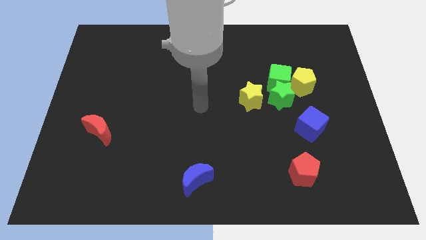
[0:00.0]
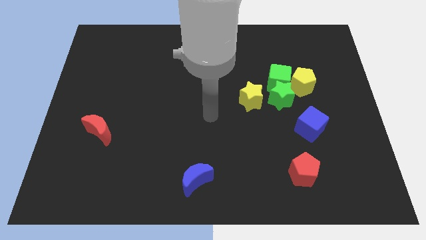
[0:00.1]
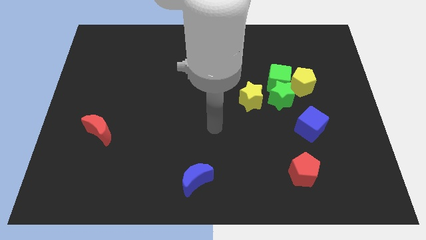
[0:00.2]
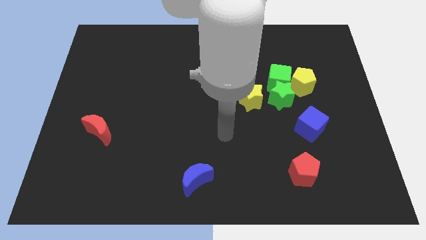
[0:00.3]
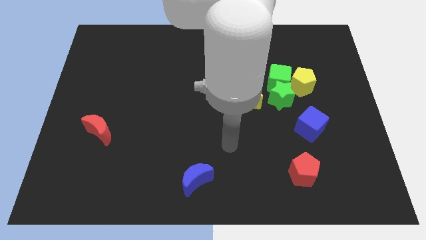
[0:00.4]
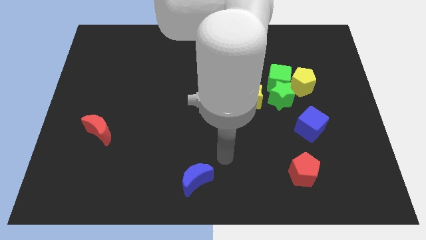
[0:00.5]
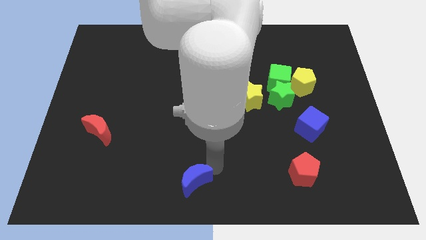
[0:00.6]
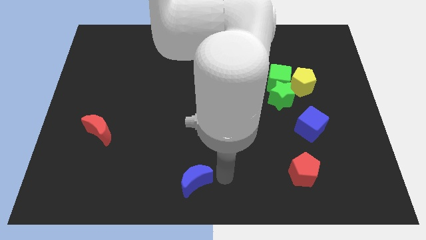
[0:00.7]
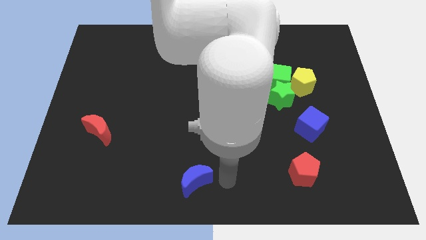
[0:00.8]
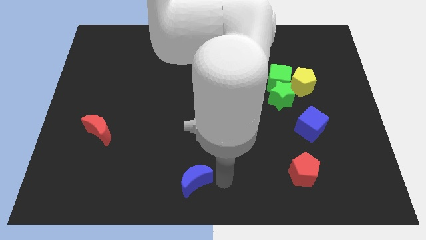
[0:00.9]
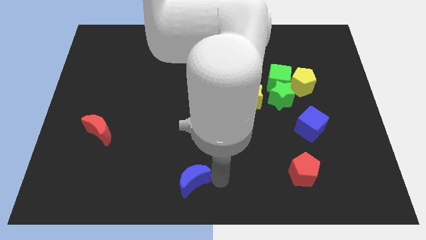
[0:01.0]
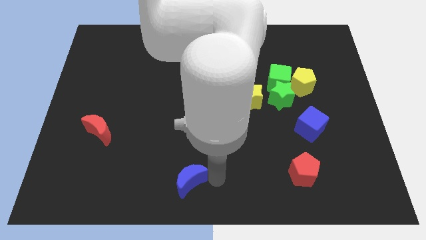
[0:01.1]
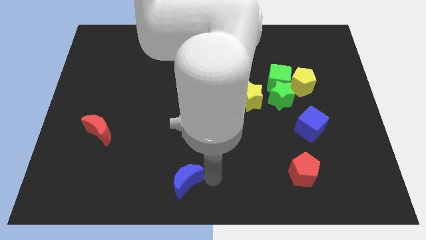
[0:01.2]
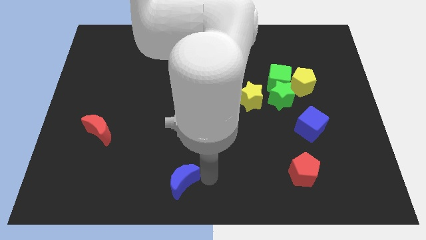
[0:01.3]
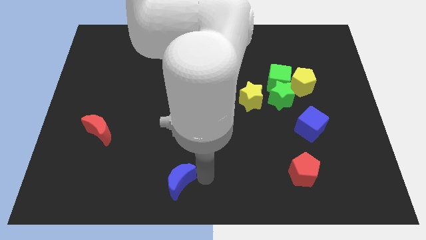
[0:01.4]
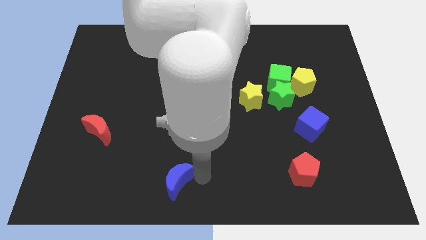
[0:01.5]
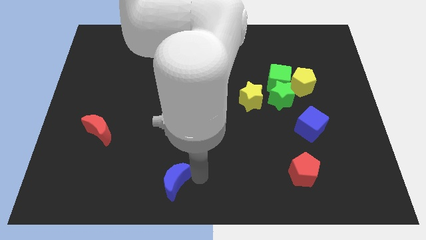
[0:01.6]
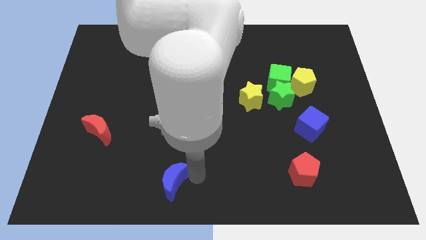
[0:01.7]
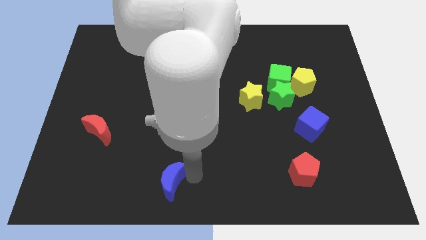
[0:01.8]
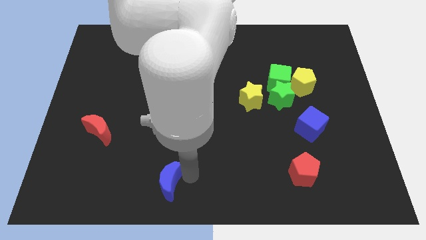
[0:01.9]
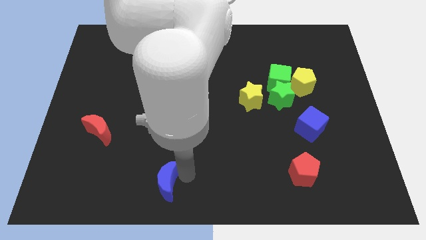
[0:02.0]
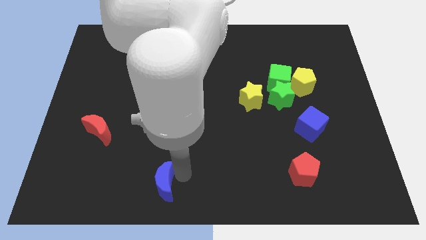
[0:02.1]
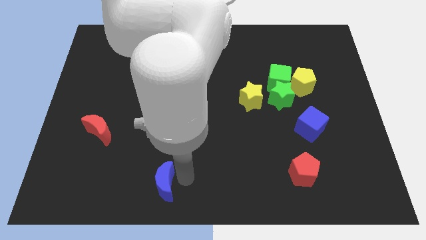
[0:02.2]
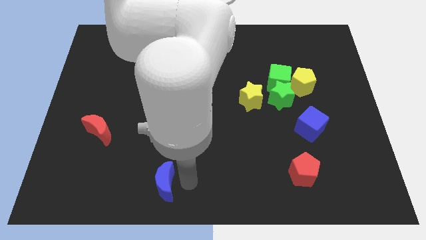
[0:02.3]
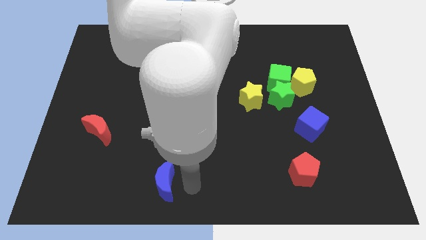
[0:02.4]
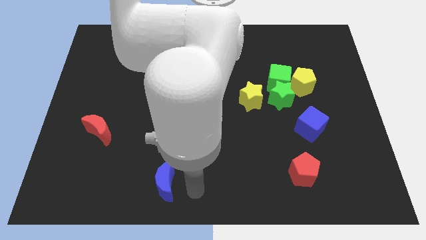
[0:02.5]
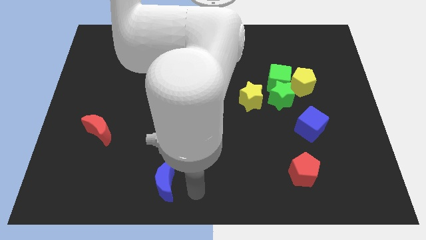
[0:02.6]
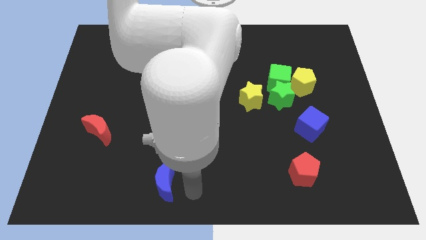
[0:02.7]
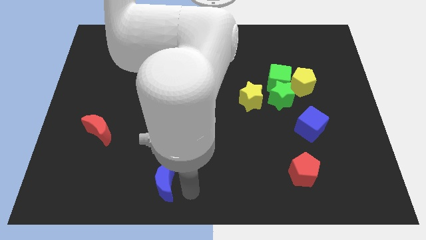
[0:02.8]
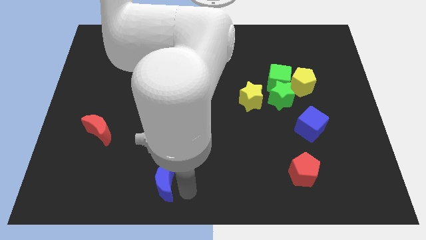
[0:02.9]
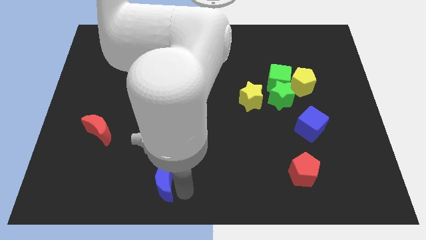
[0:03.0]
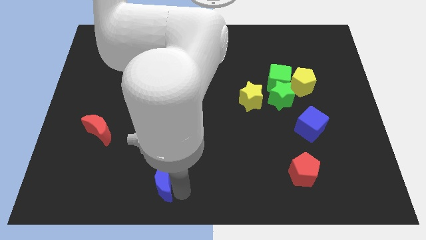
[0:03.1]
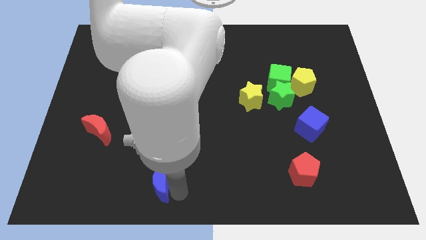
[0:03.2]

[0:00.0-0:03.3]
slightly slide the blue moon left

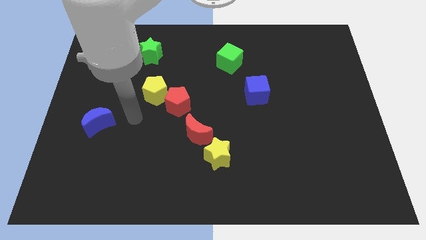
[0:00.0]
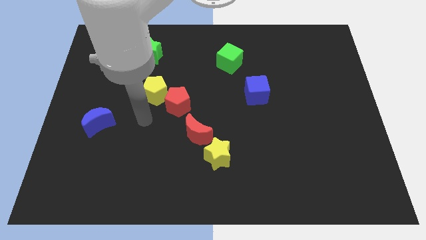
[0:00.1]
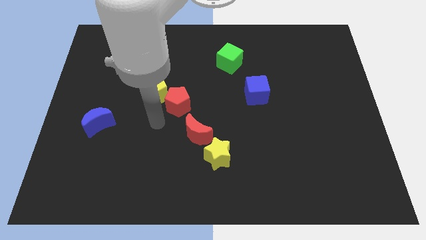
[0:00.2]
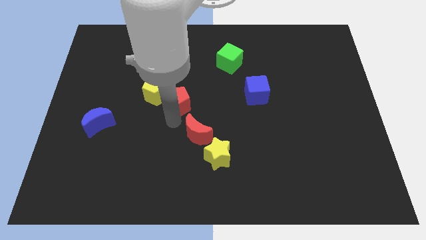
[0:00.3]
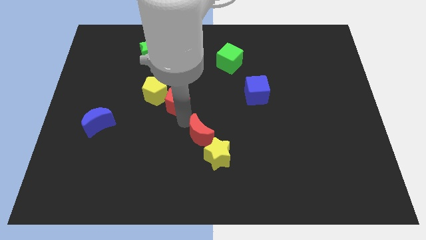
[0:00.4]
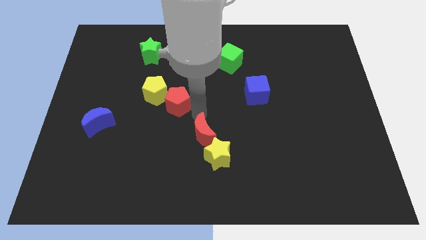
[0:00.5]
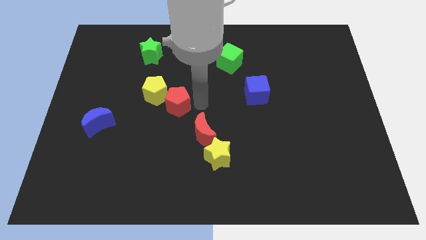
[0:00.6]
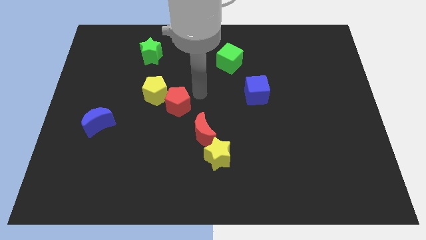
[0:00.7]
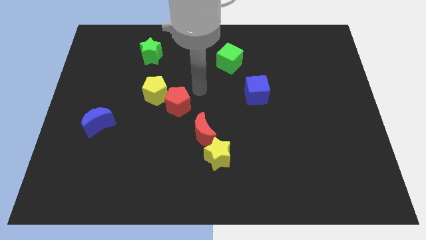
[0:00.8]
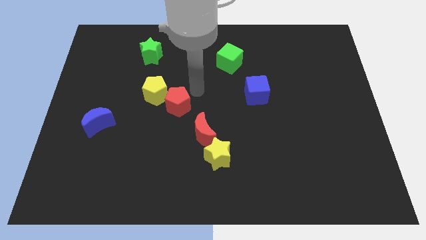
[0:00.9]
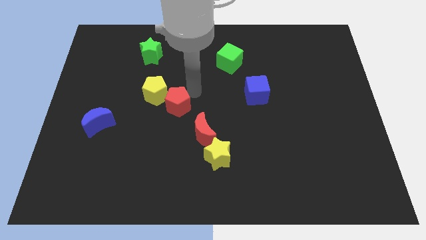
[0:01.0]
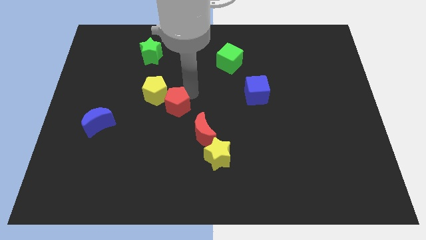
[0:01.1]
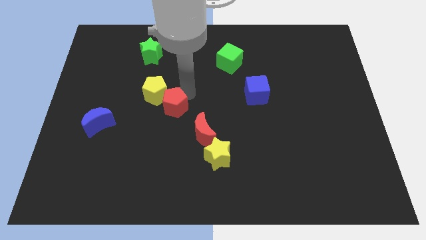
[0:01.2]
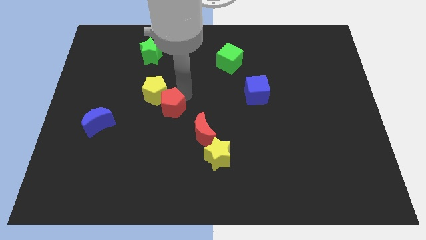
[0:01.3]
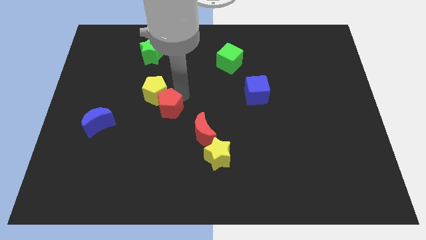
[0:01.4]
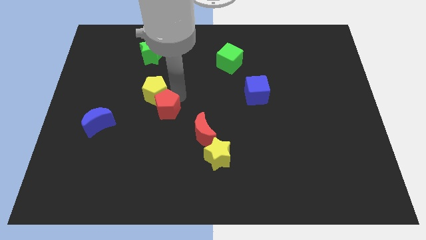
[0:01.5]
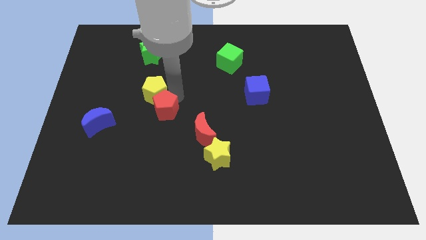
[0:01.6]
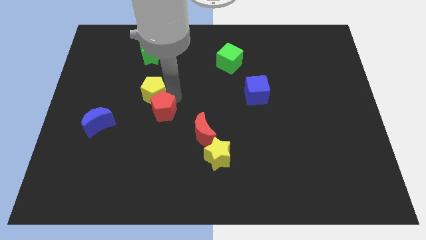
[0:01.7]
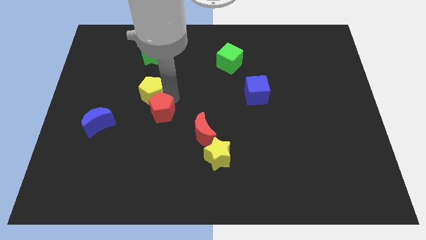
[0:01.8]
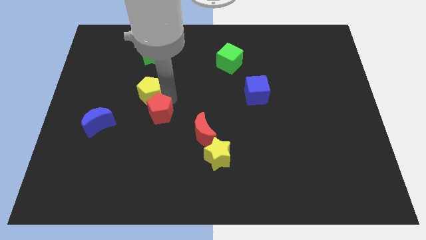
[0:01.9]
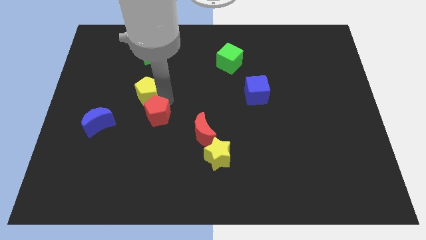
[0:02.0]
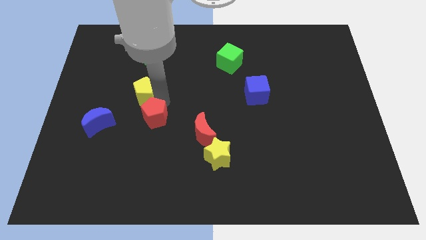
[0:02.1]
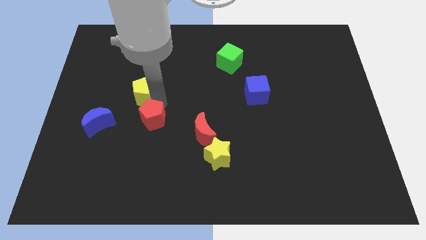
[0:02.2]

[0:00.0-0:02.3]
slightly slide the red pentagon downwards and left

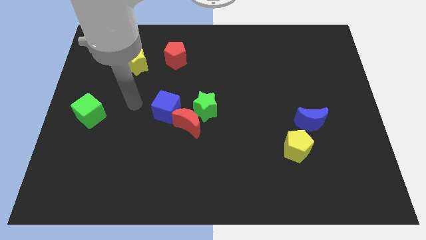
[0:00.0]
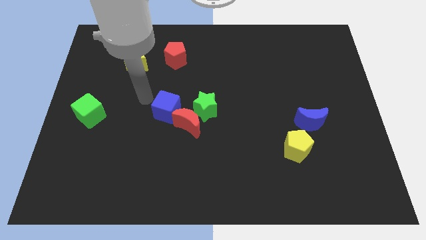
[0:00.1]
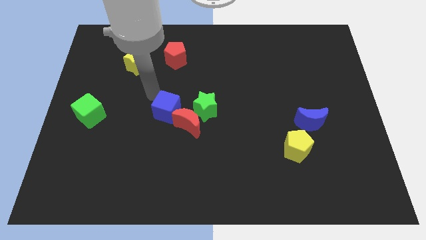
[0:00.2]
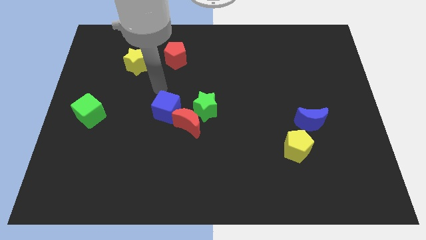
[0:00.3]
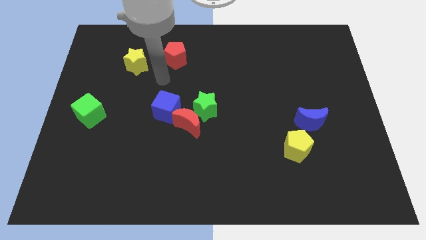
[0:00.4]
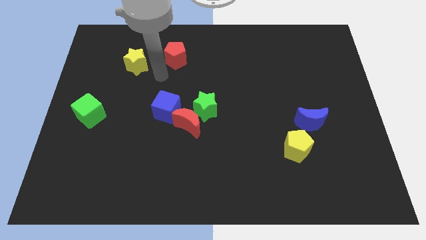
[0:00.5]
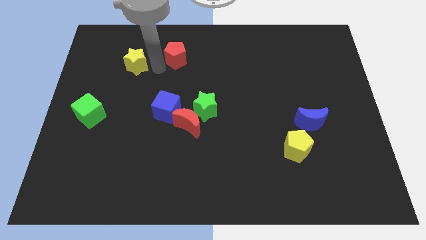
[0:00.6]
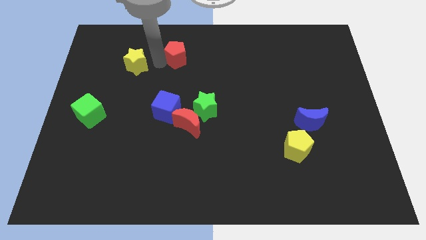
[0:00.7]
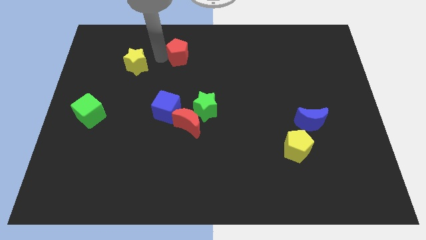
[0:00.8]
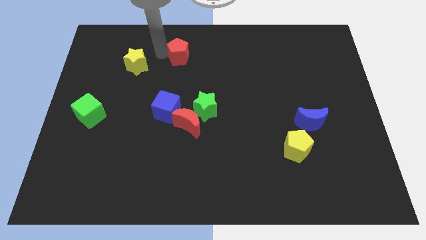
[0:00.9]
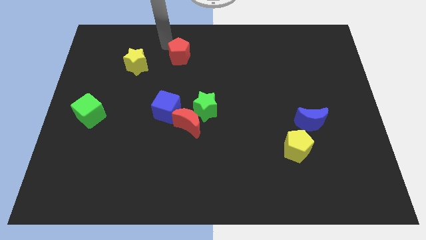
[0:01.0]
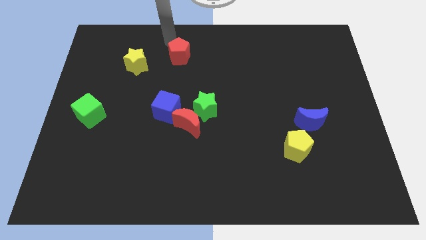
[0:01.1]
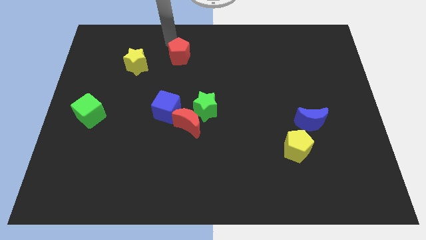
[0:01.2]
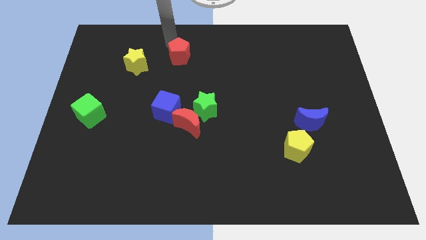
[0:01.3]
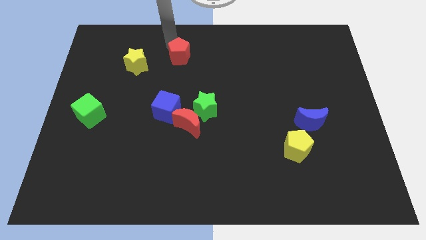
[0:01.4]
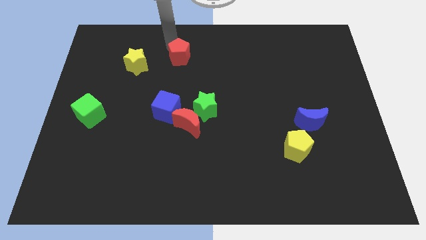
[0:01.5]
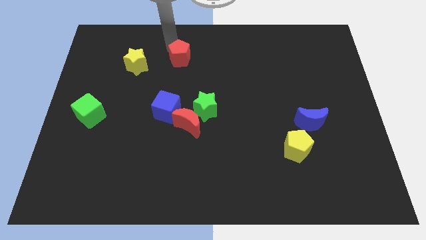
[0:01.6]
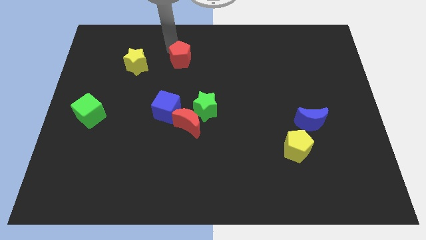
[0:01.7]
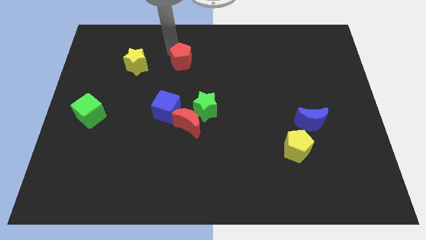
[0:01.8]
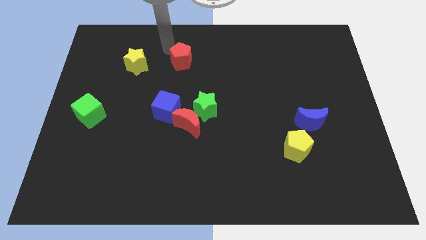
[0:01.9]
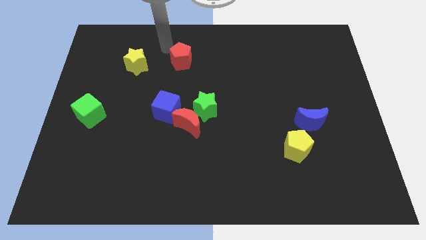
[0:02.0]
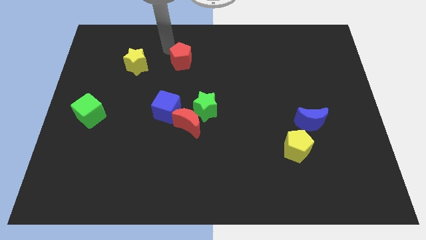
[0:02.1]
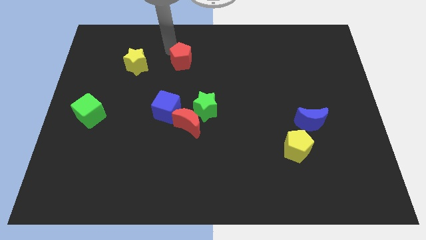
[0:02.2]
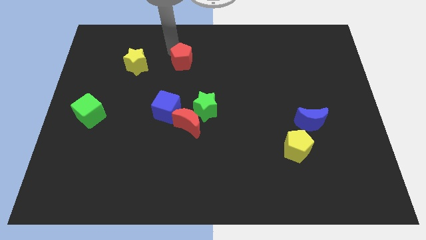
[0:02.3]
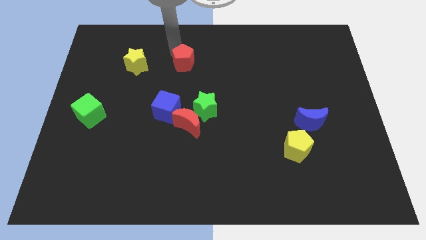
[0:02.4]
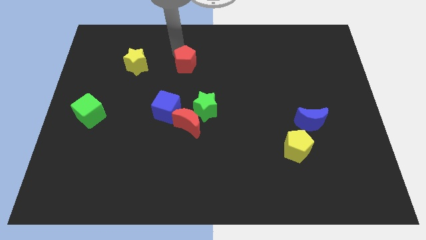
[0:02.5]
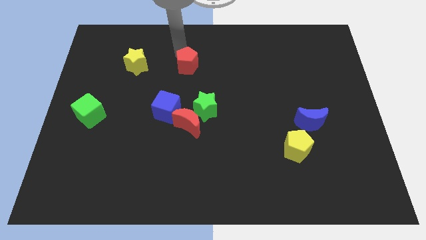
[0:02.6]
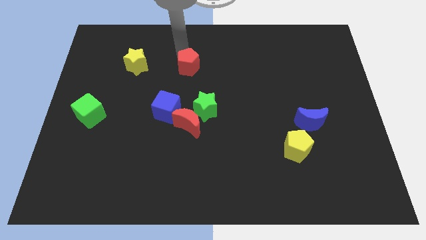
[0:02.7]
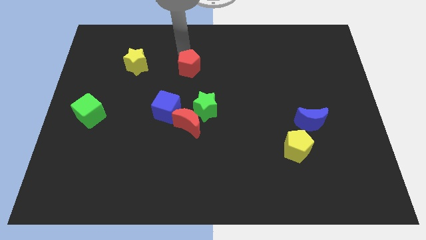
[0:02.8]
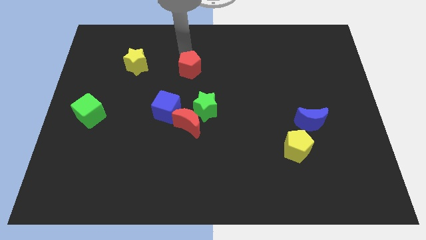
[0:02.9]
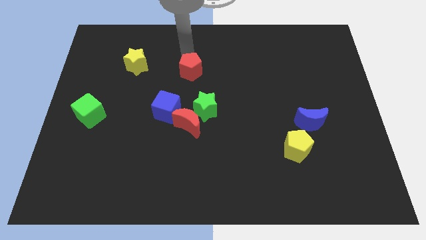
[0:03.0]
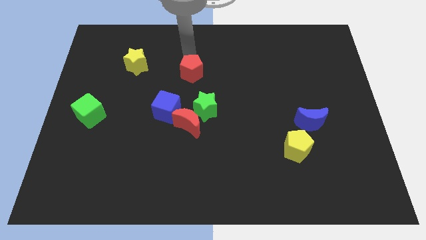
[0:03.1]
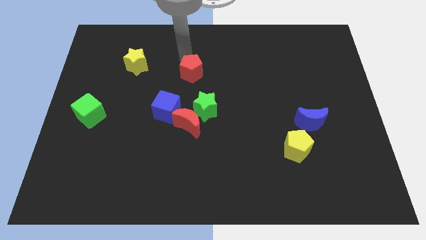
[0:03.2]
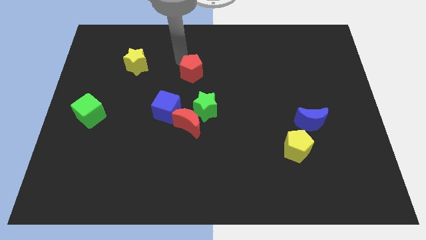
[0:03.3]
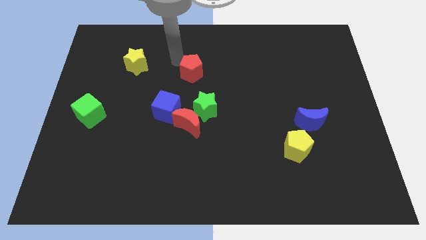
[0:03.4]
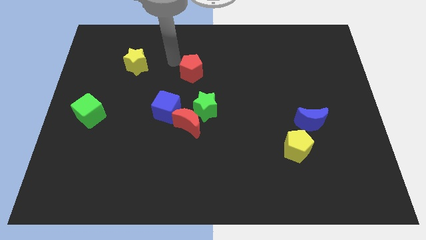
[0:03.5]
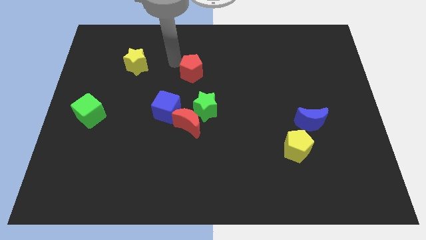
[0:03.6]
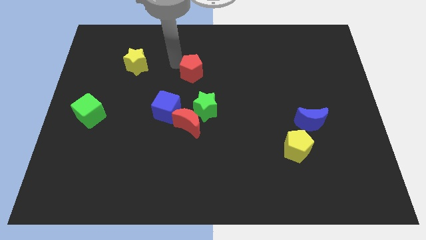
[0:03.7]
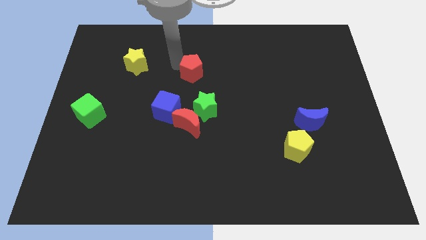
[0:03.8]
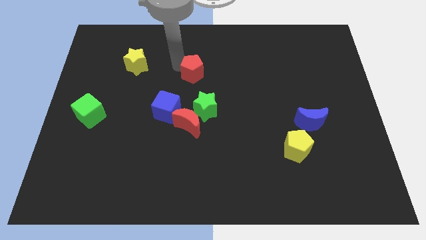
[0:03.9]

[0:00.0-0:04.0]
slightly slide the red pentagon downwards and then to the right
